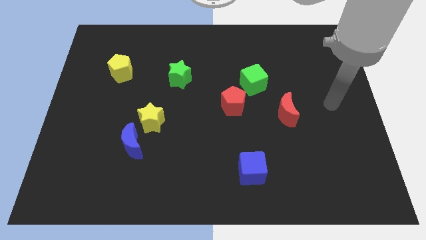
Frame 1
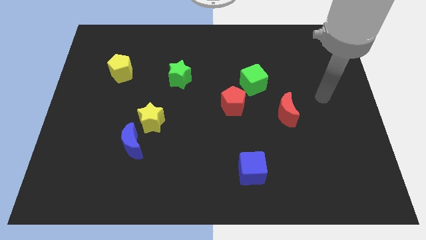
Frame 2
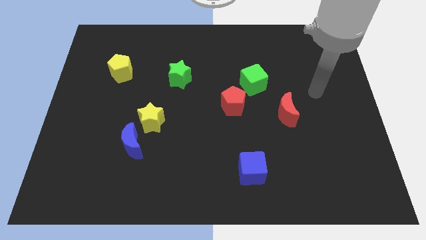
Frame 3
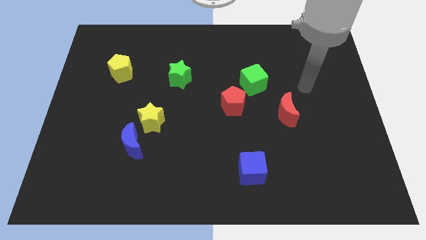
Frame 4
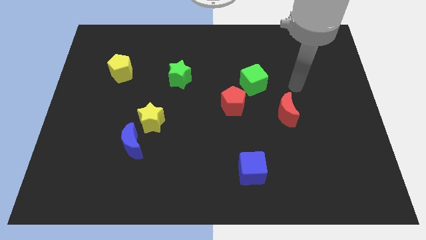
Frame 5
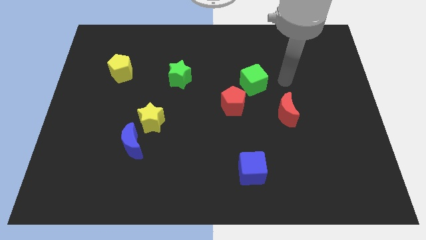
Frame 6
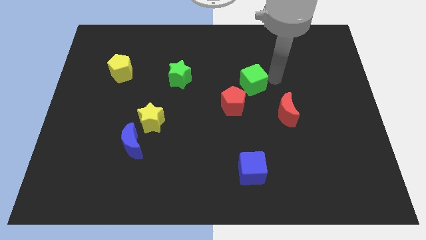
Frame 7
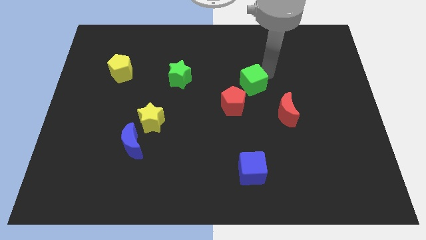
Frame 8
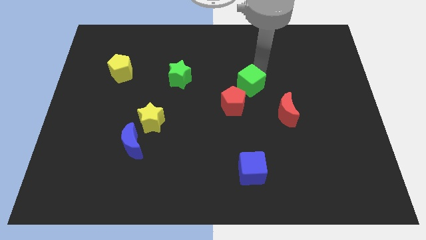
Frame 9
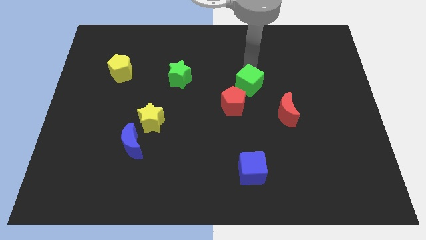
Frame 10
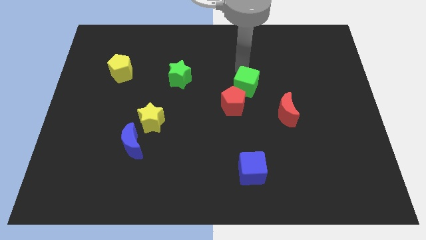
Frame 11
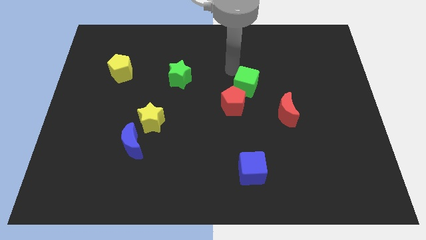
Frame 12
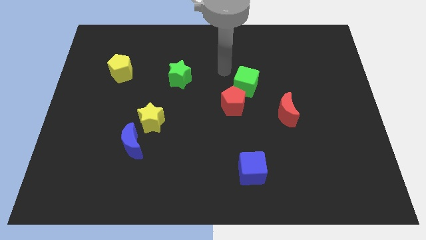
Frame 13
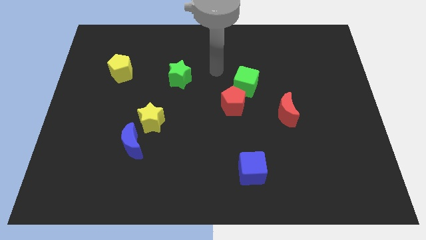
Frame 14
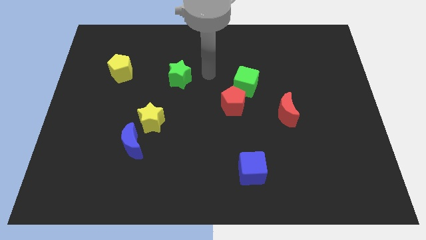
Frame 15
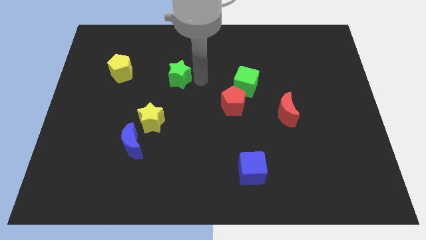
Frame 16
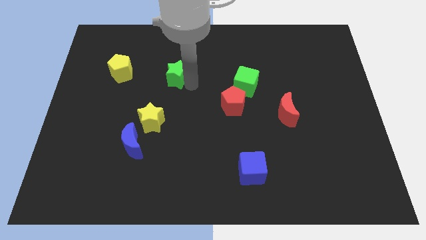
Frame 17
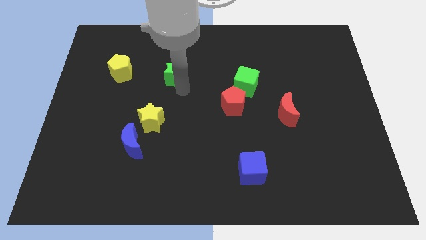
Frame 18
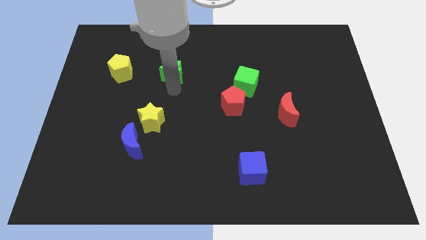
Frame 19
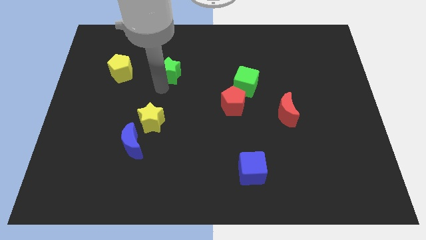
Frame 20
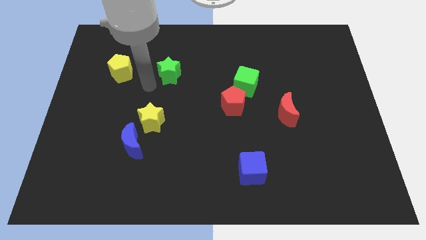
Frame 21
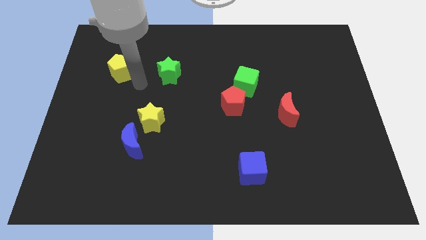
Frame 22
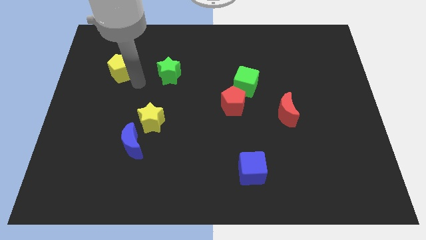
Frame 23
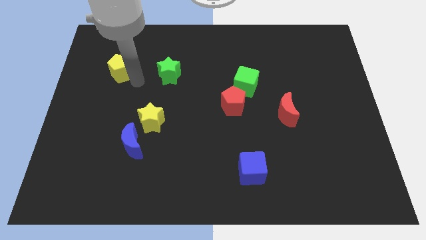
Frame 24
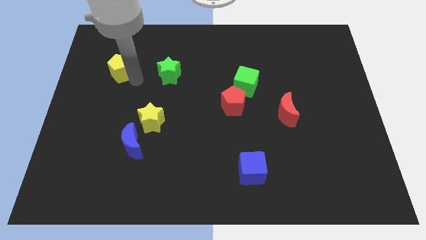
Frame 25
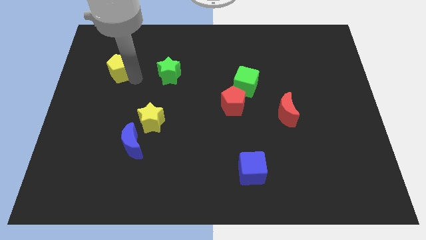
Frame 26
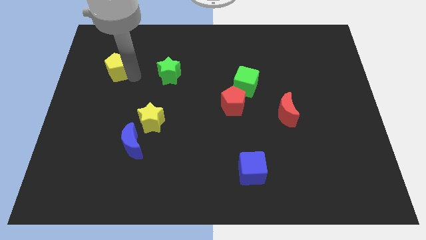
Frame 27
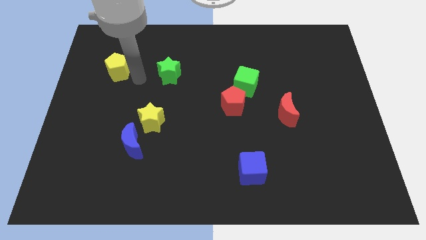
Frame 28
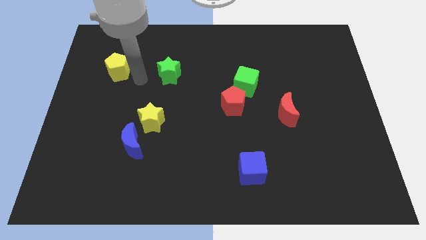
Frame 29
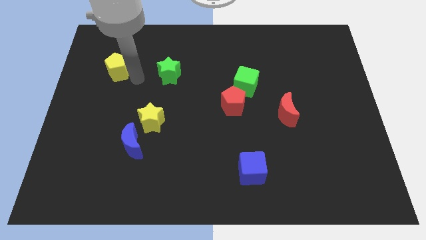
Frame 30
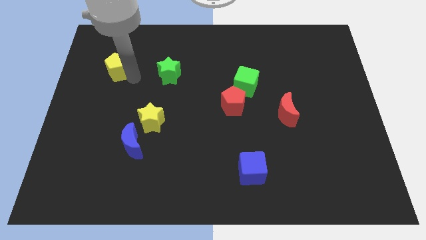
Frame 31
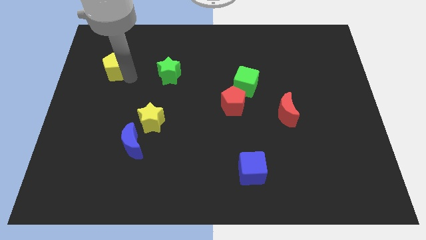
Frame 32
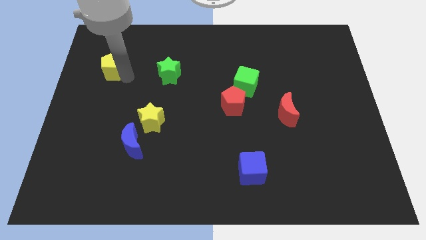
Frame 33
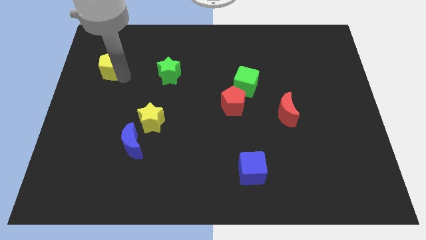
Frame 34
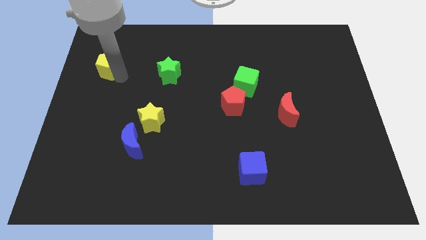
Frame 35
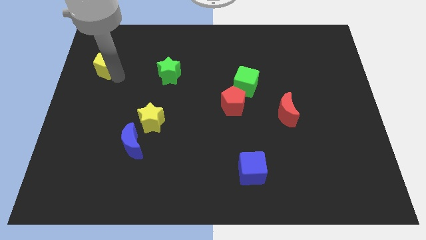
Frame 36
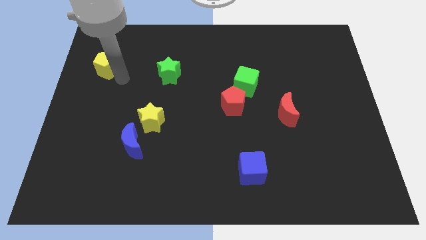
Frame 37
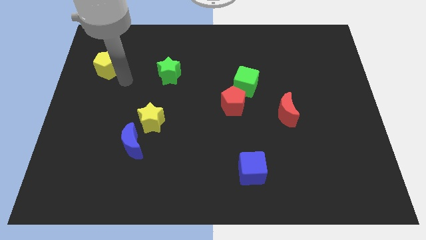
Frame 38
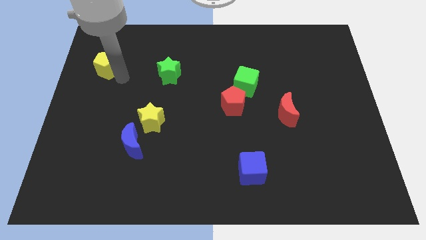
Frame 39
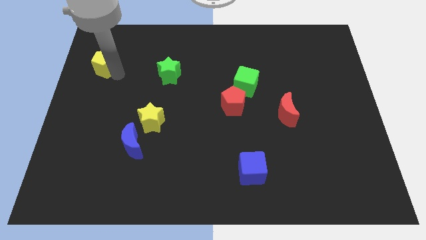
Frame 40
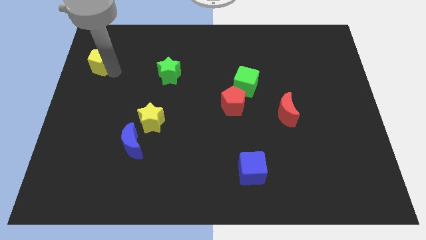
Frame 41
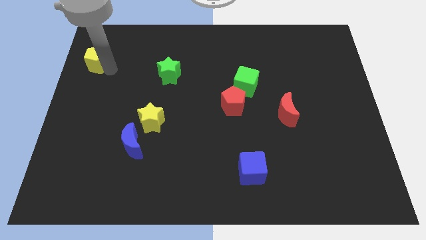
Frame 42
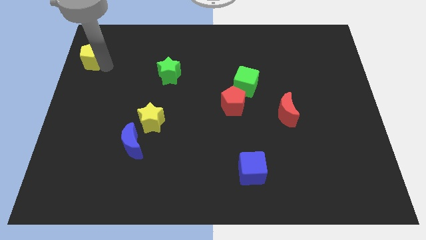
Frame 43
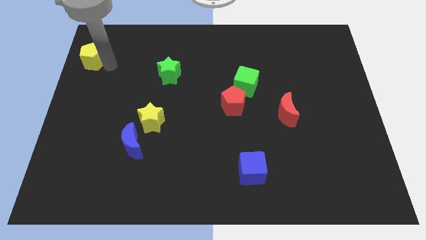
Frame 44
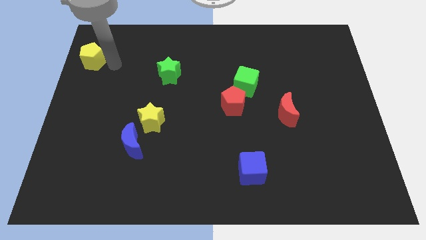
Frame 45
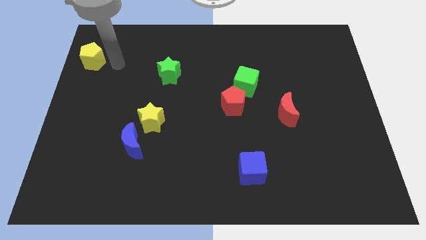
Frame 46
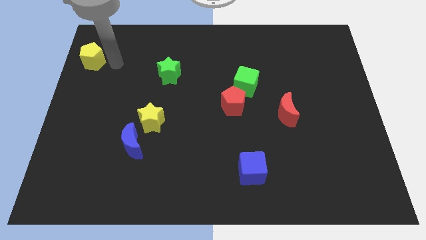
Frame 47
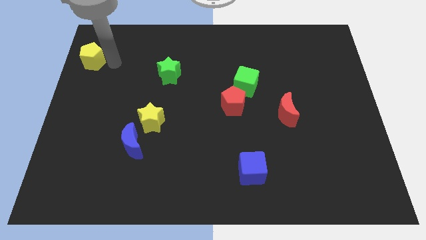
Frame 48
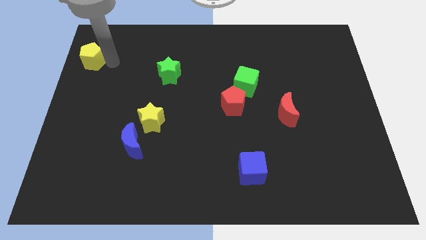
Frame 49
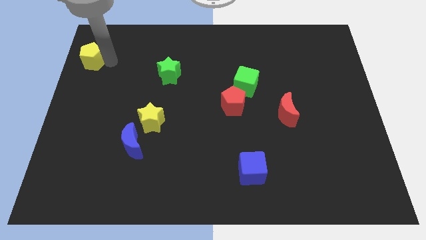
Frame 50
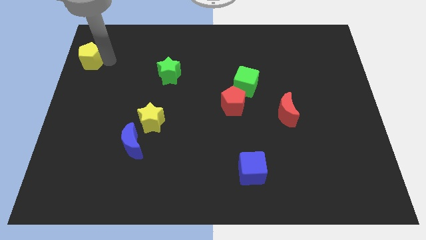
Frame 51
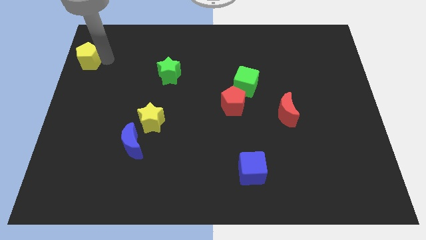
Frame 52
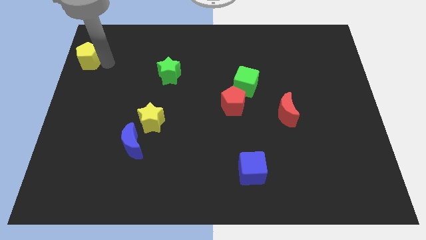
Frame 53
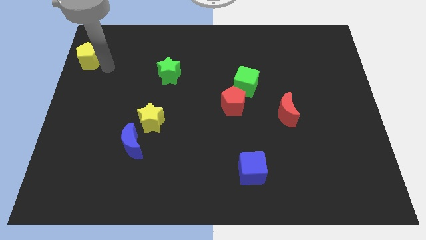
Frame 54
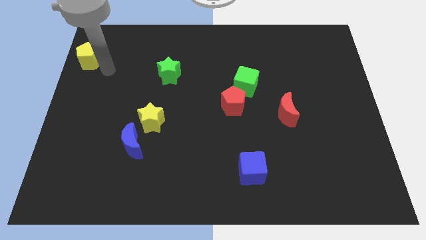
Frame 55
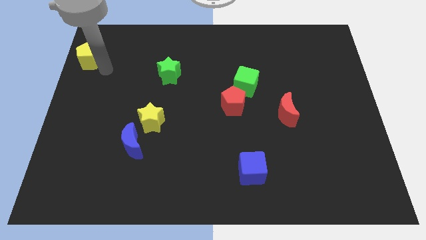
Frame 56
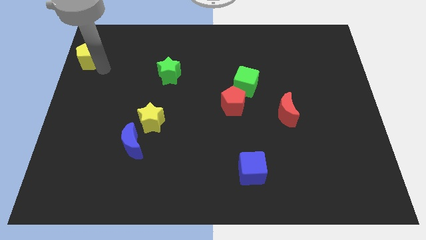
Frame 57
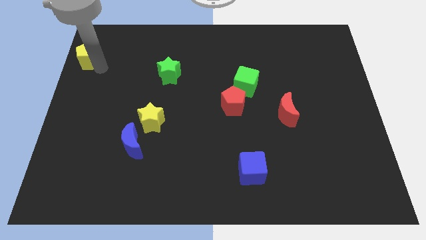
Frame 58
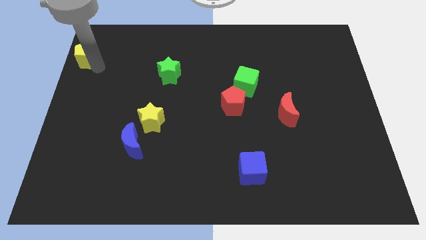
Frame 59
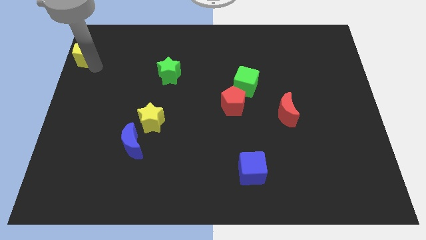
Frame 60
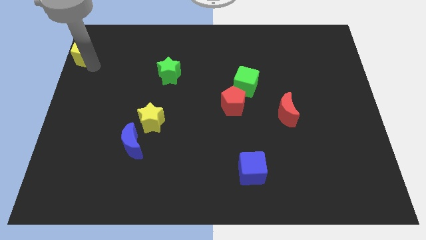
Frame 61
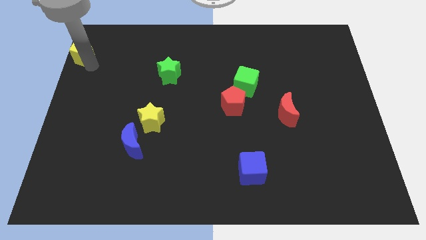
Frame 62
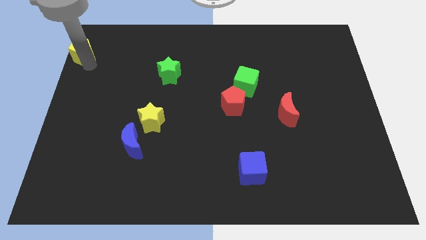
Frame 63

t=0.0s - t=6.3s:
move the yellow pentagon to the top left

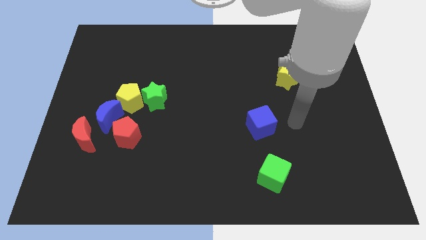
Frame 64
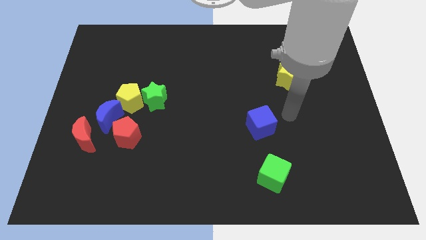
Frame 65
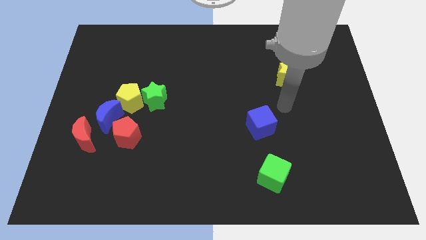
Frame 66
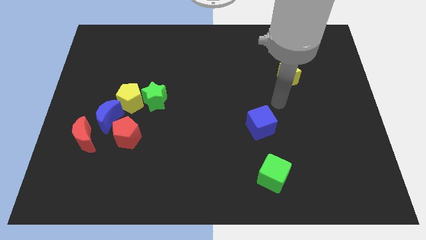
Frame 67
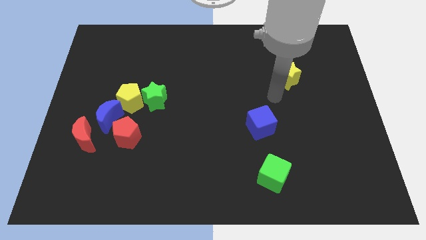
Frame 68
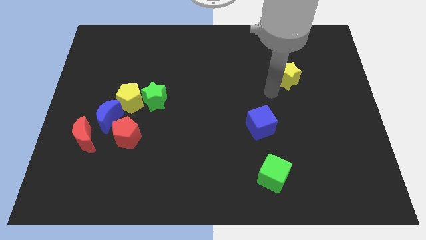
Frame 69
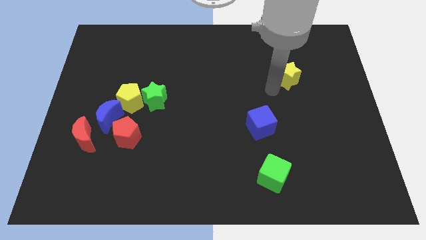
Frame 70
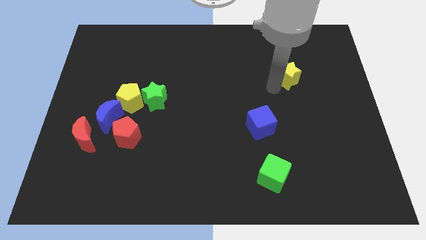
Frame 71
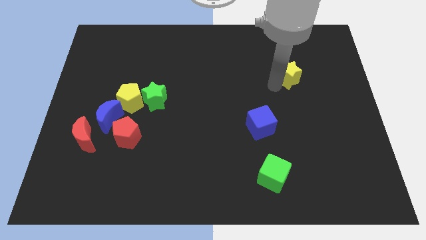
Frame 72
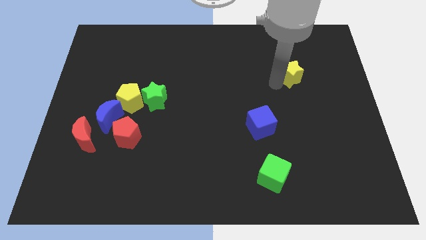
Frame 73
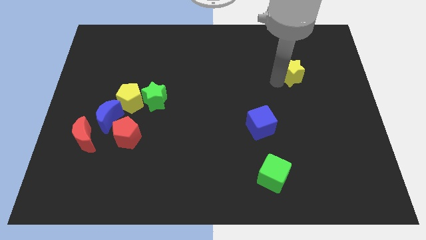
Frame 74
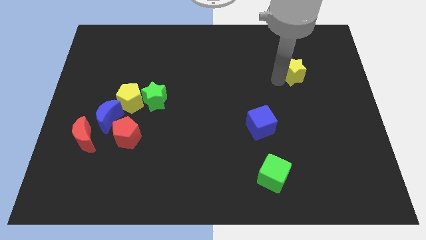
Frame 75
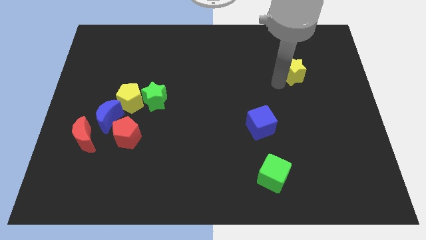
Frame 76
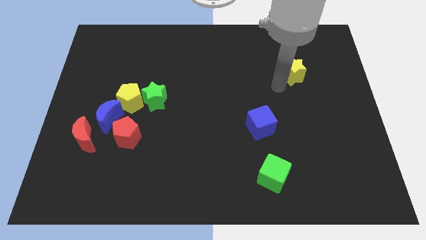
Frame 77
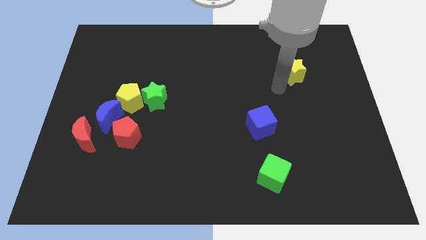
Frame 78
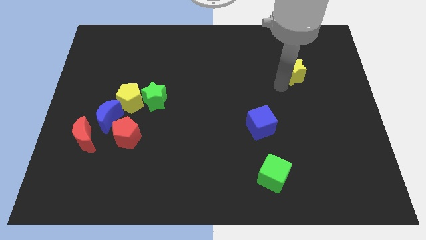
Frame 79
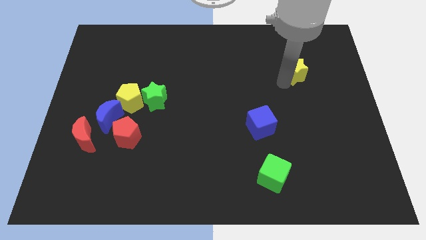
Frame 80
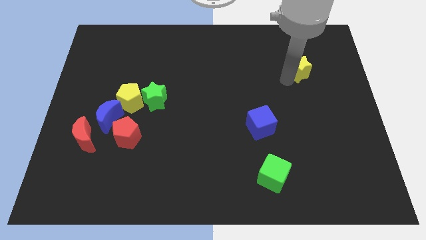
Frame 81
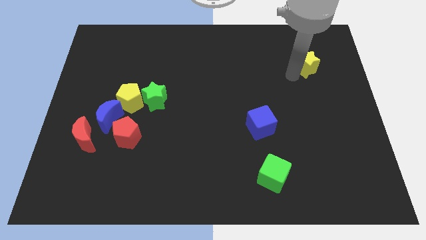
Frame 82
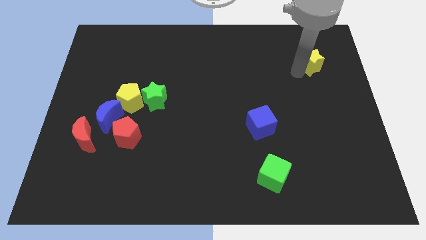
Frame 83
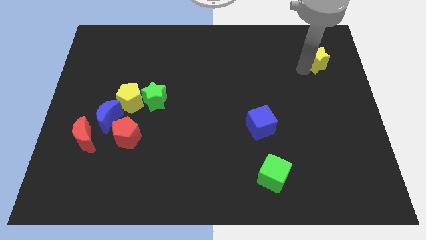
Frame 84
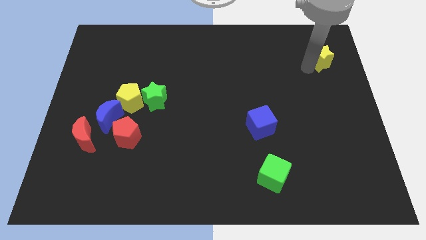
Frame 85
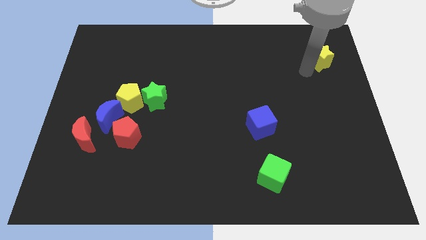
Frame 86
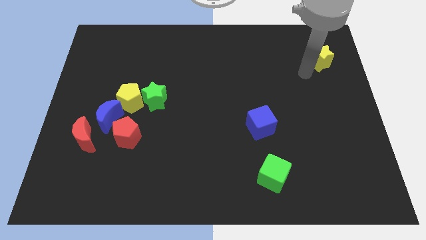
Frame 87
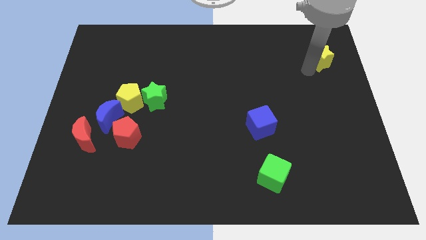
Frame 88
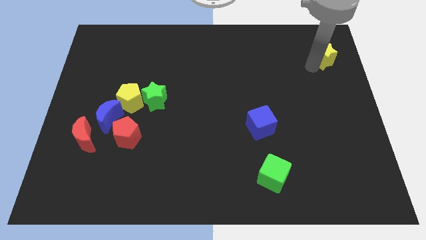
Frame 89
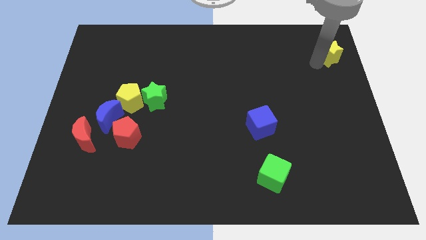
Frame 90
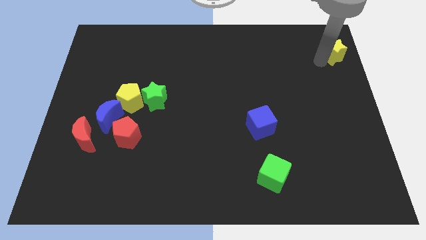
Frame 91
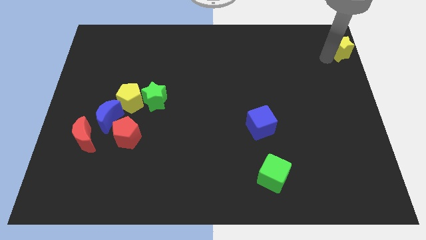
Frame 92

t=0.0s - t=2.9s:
slide the yellow star to the top right of the board
